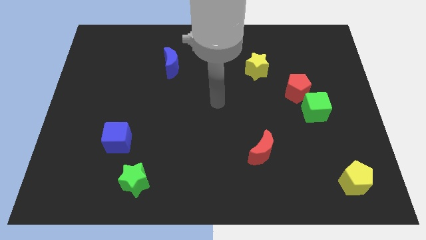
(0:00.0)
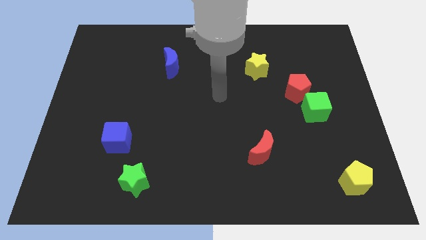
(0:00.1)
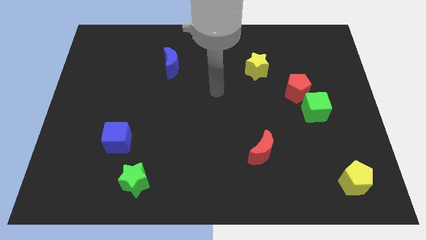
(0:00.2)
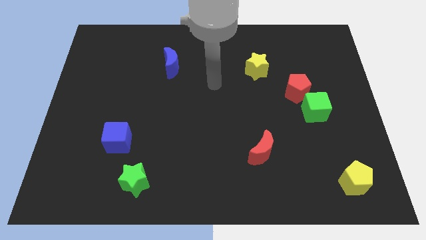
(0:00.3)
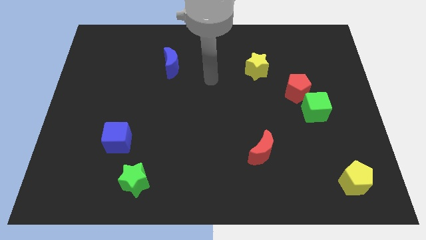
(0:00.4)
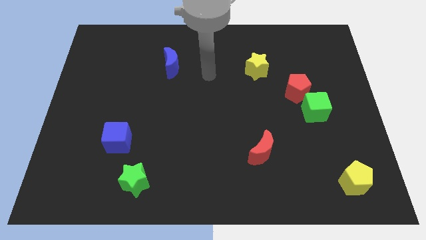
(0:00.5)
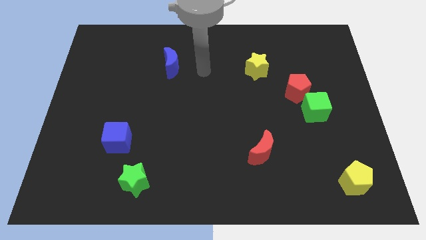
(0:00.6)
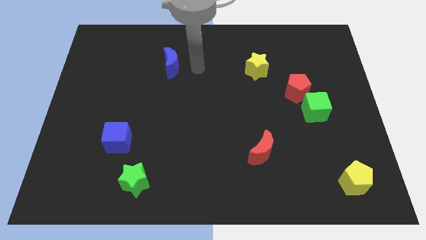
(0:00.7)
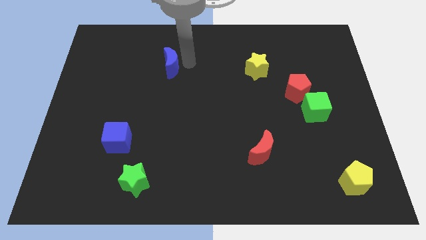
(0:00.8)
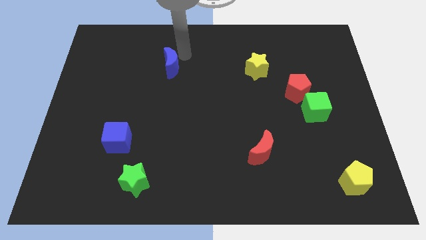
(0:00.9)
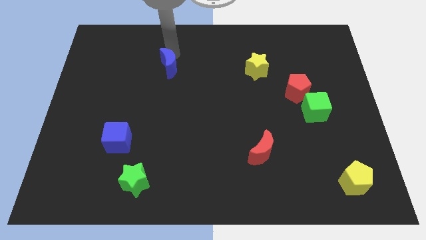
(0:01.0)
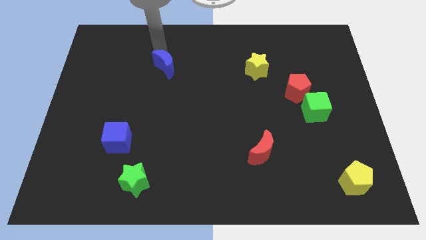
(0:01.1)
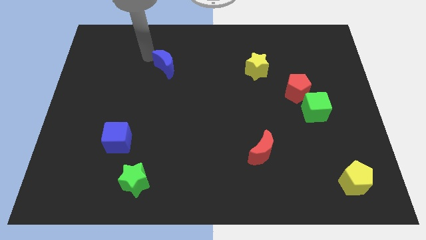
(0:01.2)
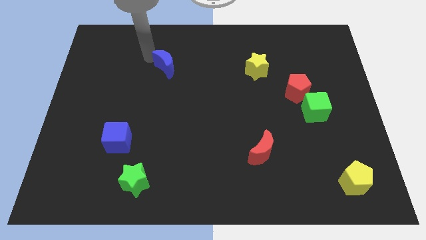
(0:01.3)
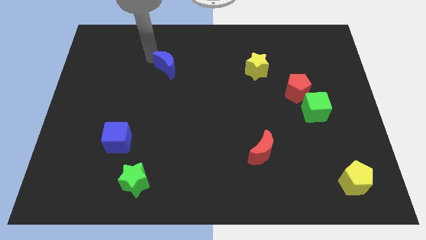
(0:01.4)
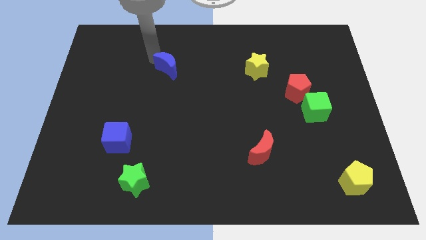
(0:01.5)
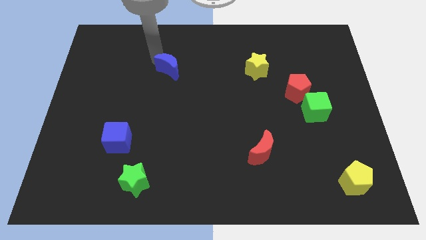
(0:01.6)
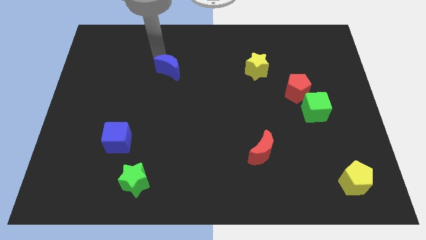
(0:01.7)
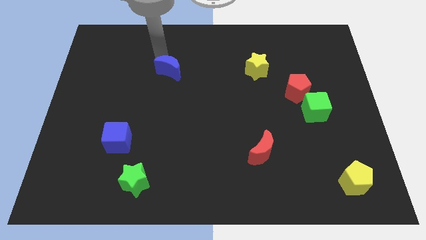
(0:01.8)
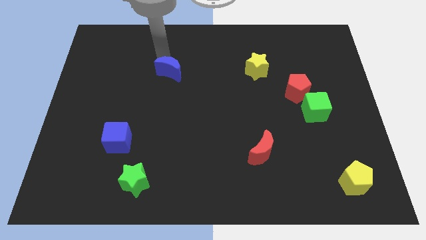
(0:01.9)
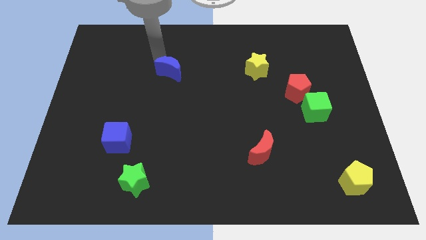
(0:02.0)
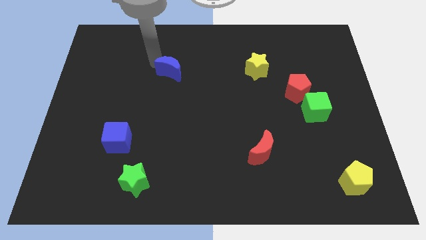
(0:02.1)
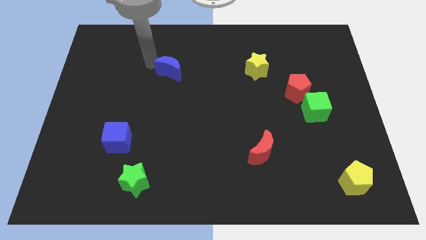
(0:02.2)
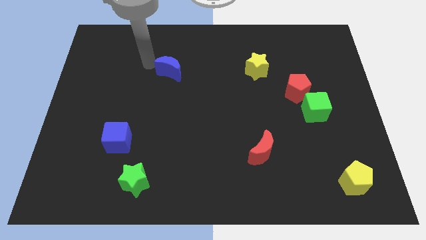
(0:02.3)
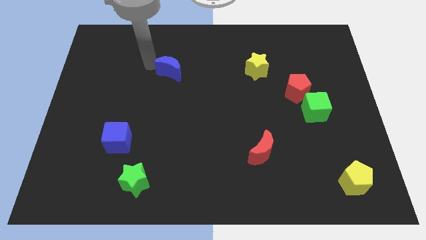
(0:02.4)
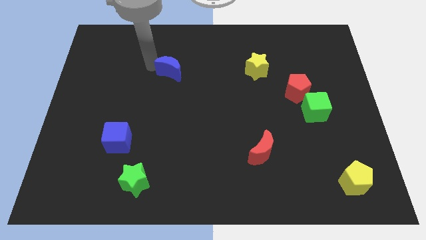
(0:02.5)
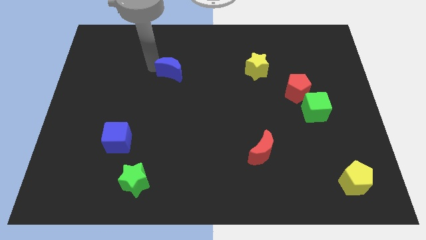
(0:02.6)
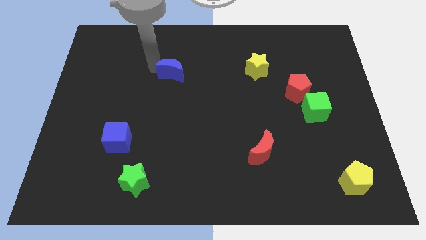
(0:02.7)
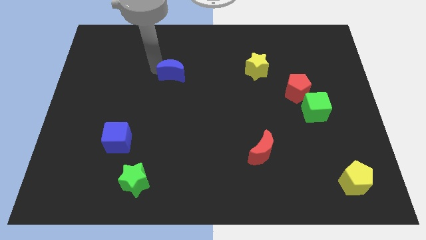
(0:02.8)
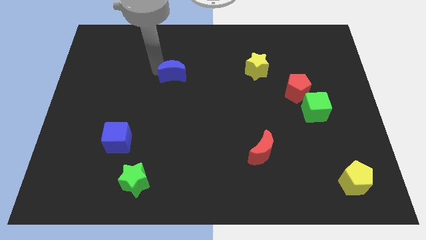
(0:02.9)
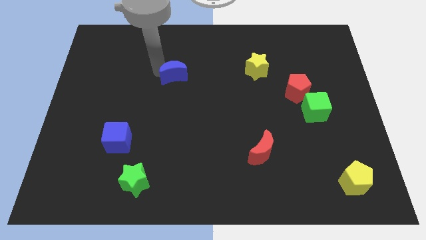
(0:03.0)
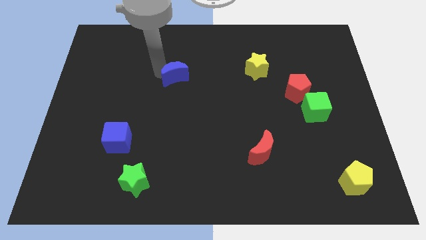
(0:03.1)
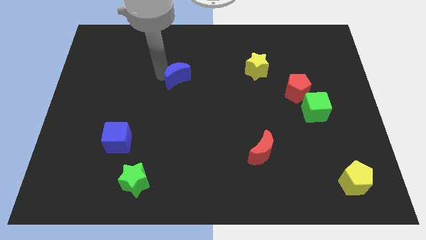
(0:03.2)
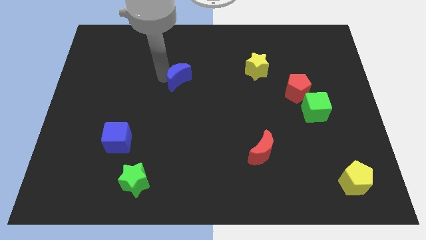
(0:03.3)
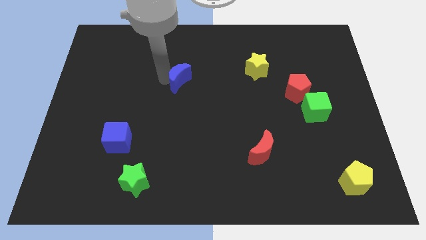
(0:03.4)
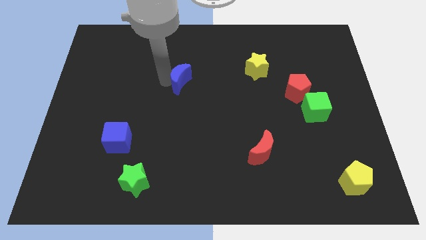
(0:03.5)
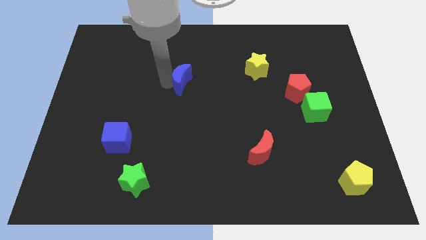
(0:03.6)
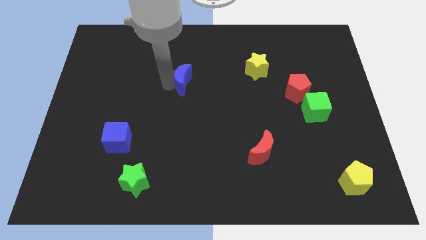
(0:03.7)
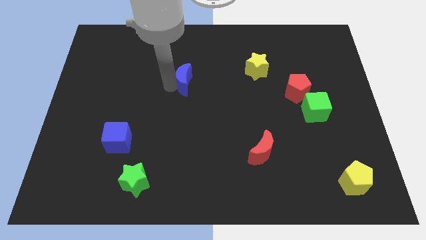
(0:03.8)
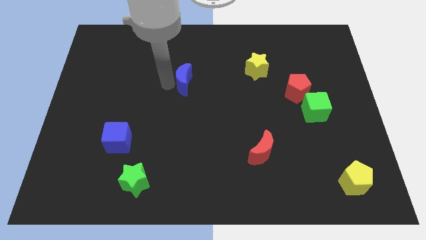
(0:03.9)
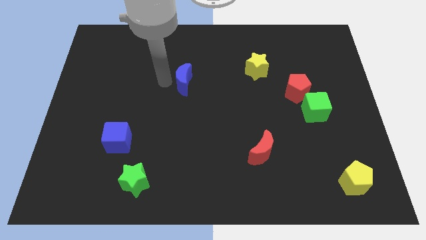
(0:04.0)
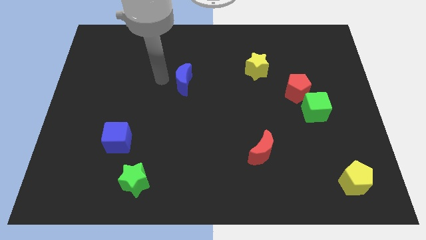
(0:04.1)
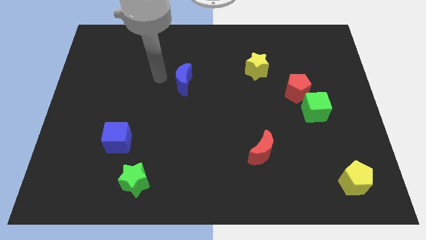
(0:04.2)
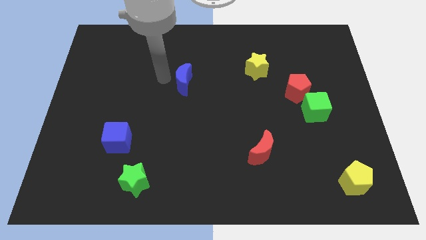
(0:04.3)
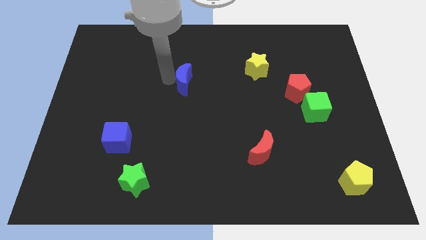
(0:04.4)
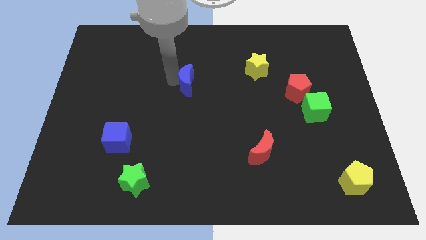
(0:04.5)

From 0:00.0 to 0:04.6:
push the blue moon down and to the right slightly

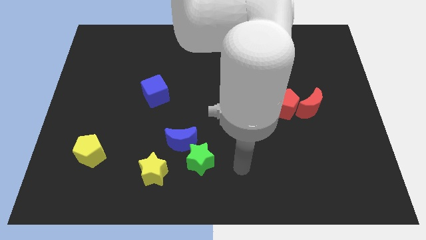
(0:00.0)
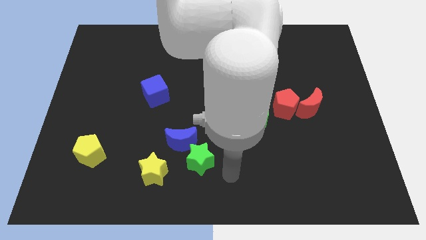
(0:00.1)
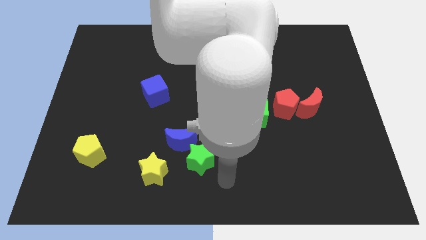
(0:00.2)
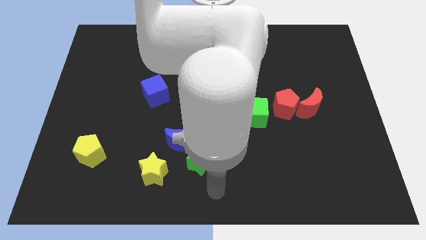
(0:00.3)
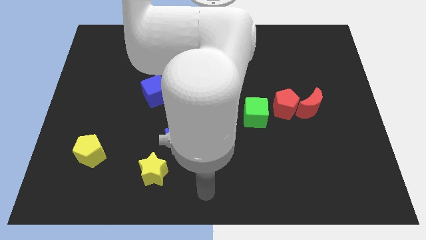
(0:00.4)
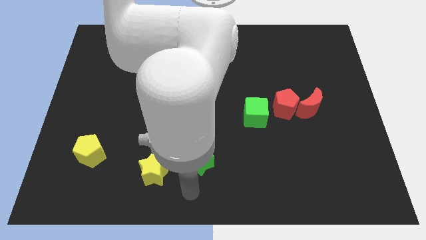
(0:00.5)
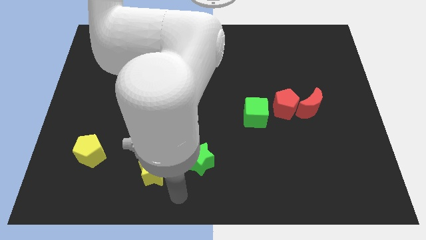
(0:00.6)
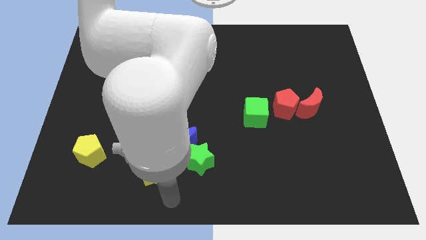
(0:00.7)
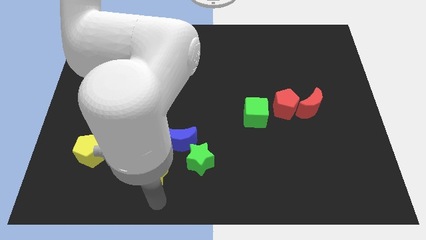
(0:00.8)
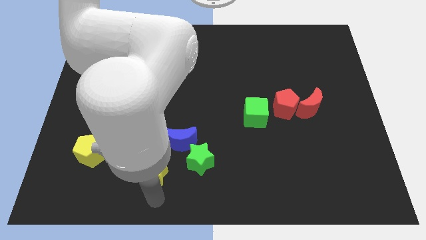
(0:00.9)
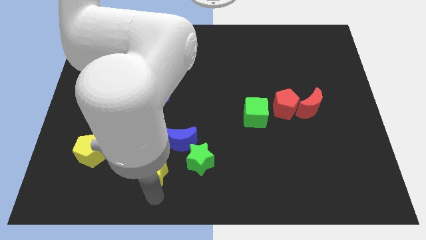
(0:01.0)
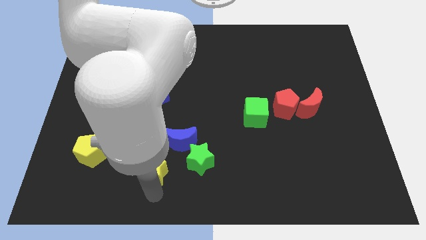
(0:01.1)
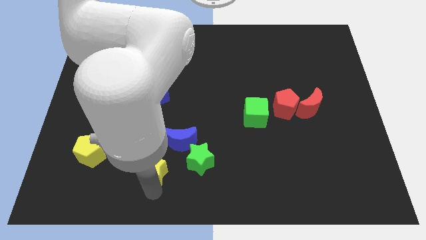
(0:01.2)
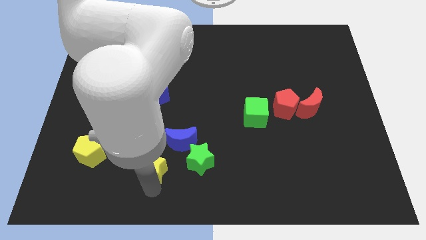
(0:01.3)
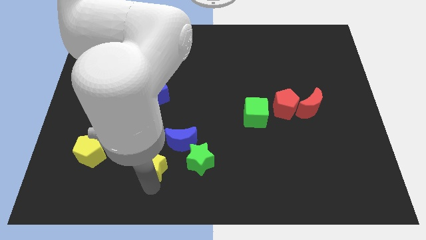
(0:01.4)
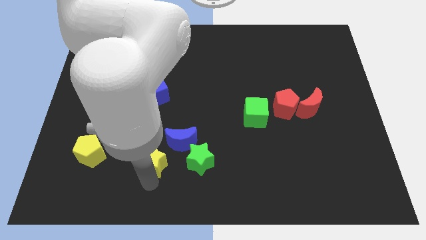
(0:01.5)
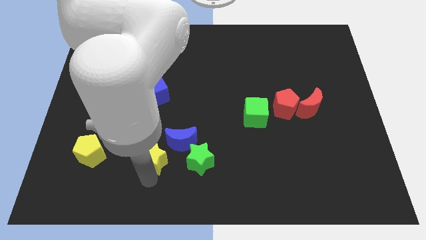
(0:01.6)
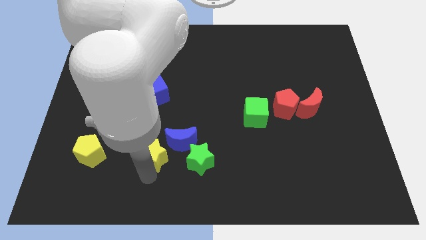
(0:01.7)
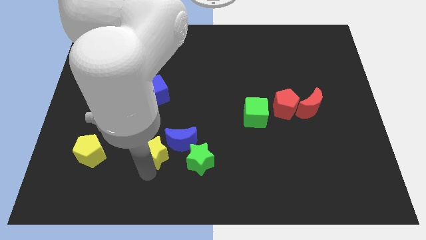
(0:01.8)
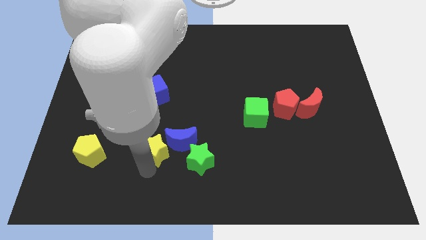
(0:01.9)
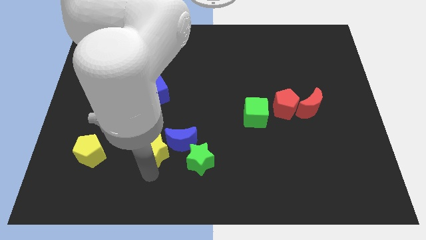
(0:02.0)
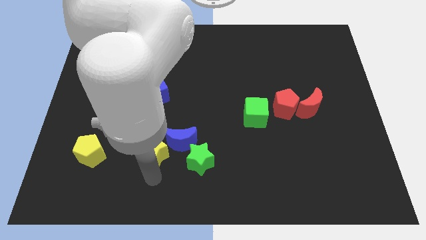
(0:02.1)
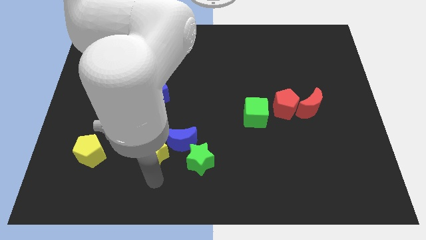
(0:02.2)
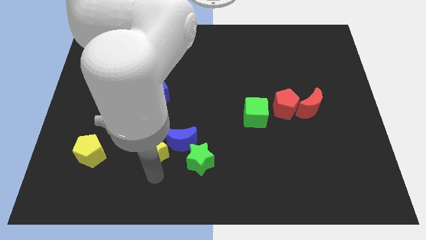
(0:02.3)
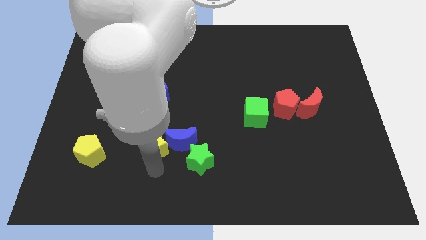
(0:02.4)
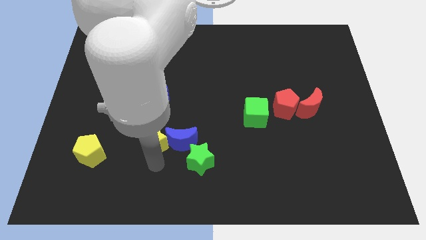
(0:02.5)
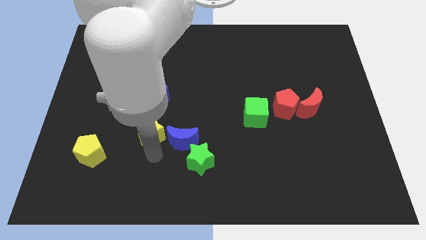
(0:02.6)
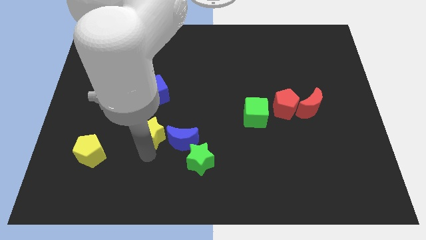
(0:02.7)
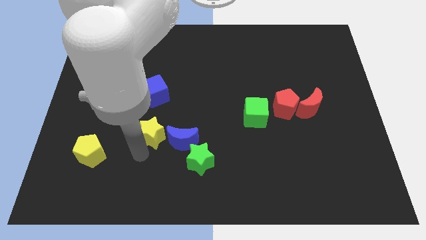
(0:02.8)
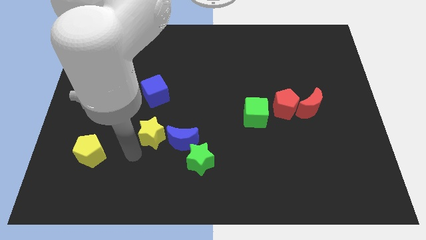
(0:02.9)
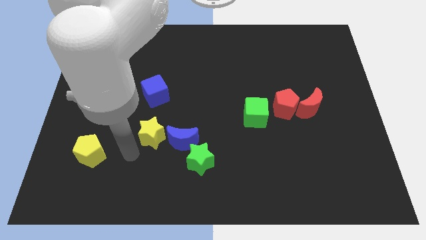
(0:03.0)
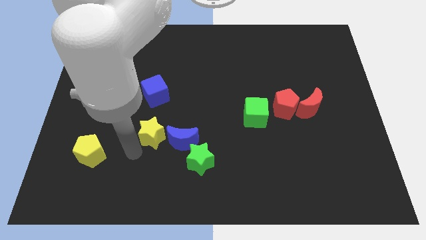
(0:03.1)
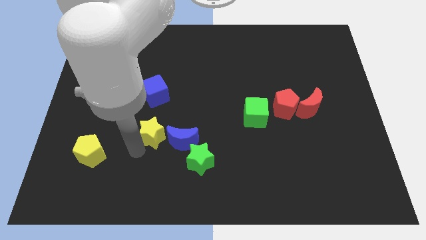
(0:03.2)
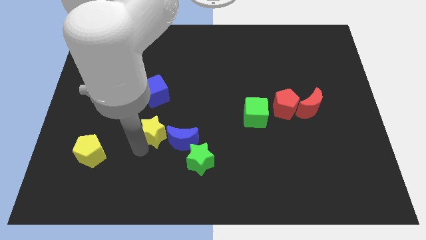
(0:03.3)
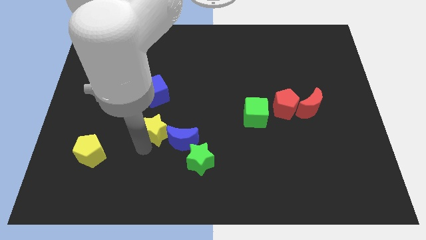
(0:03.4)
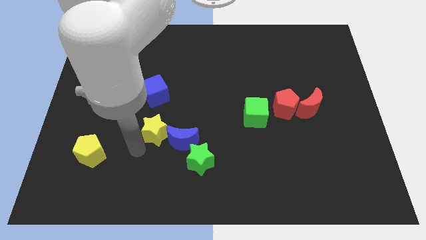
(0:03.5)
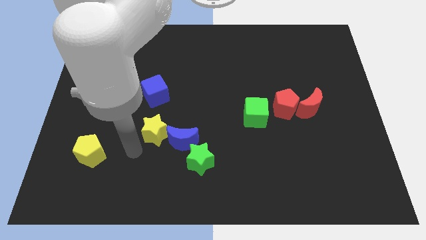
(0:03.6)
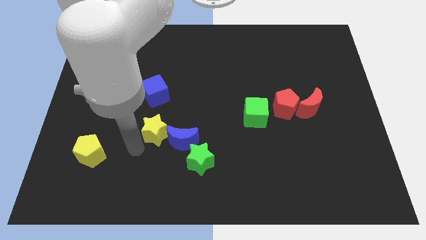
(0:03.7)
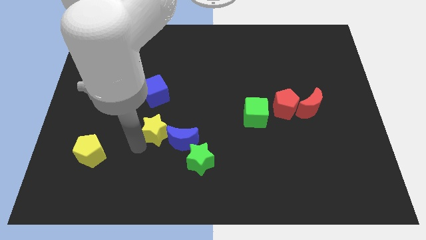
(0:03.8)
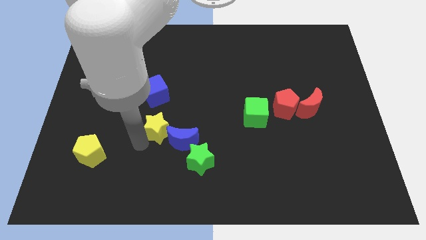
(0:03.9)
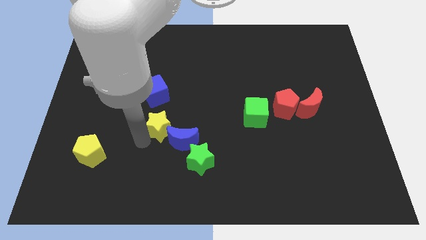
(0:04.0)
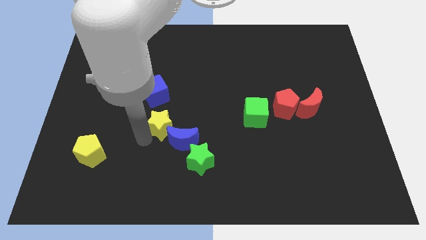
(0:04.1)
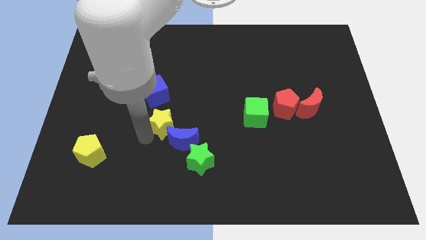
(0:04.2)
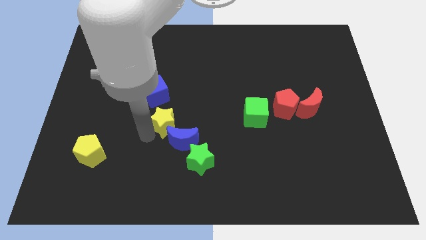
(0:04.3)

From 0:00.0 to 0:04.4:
push the yellow star diagonally up and to the right a little bit
